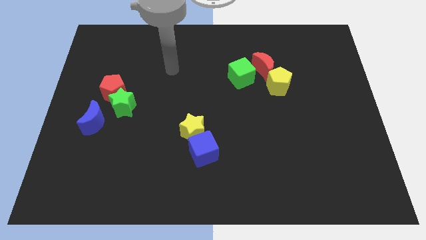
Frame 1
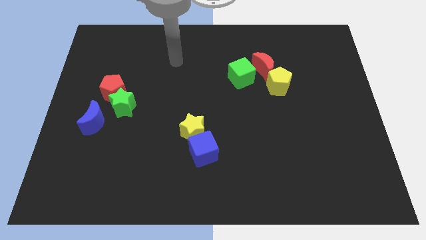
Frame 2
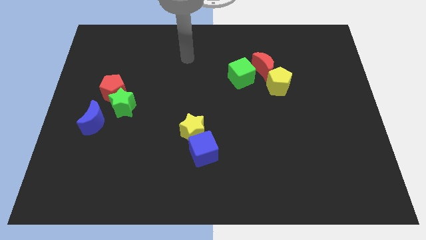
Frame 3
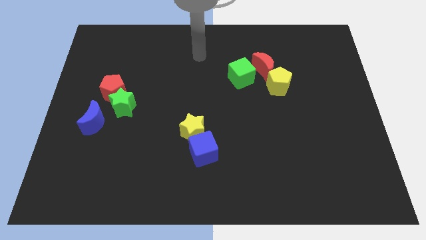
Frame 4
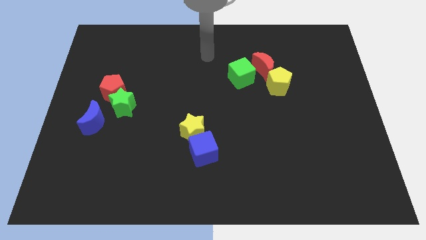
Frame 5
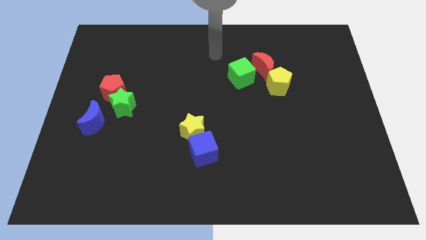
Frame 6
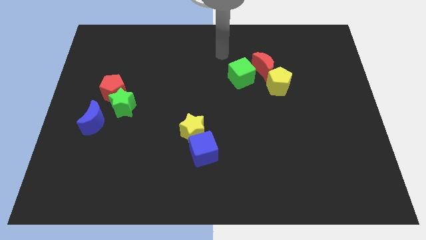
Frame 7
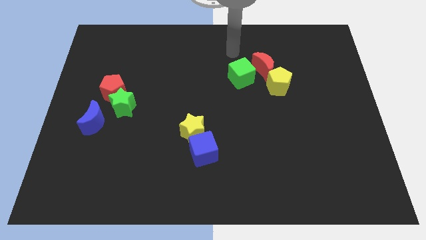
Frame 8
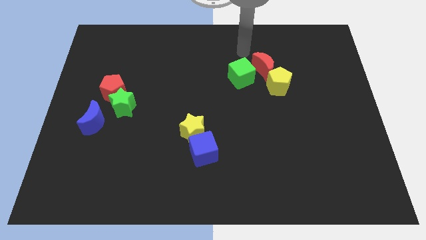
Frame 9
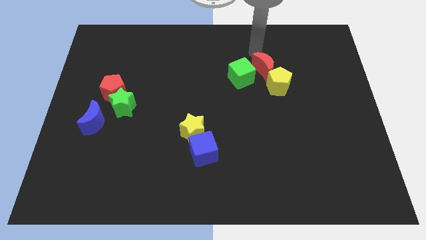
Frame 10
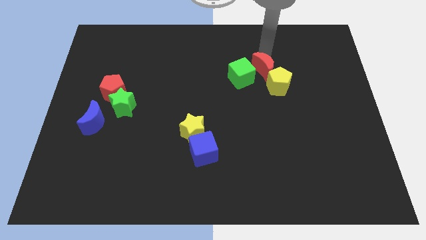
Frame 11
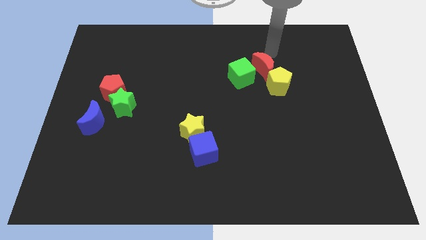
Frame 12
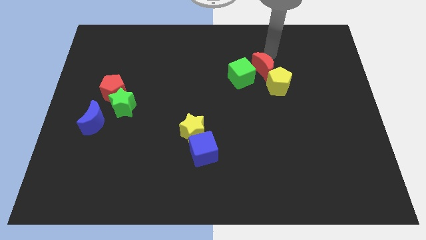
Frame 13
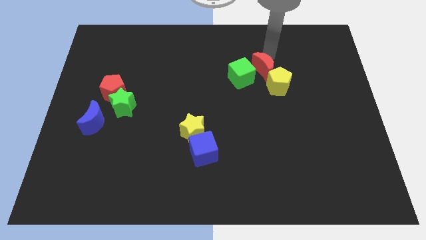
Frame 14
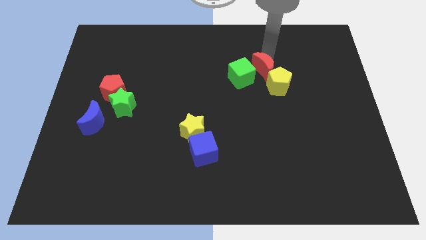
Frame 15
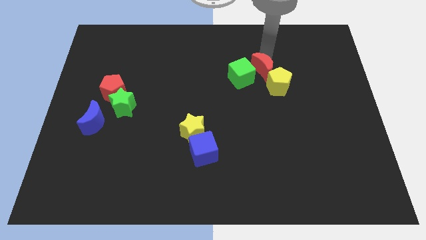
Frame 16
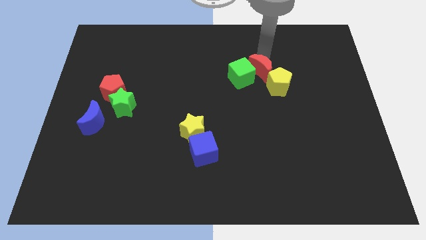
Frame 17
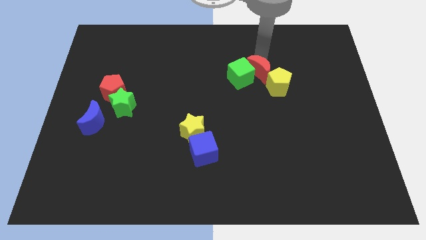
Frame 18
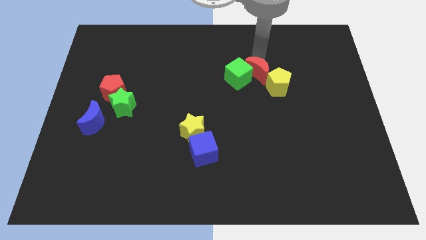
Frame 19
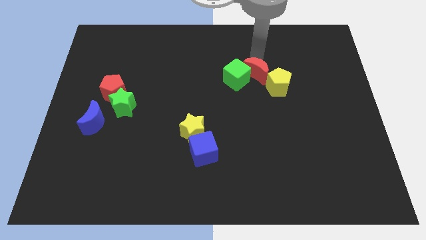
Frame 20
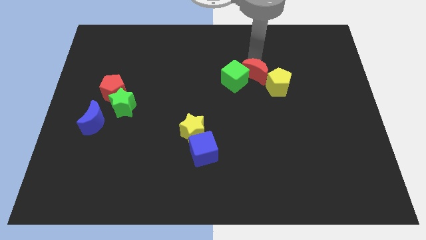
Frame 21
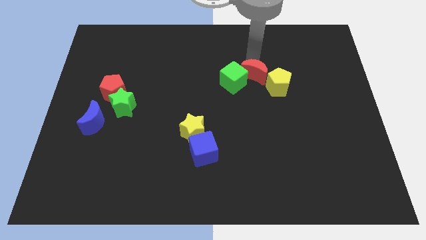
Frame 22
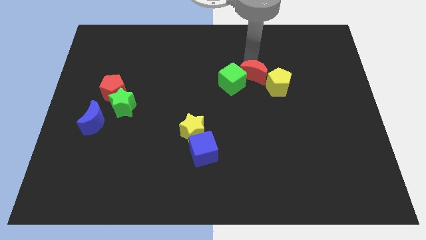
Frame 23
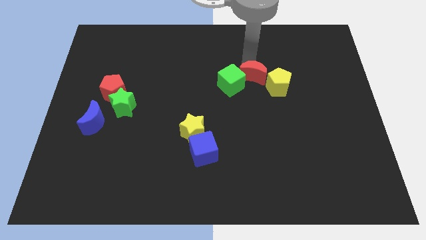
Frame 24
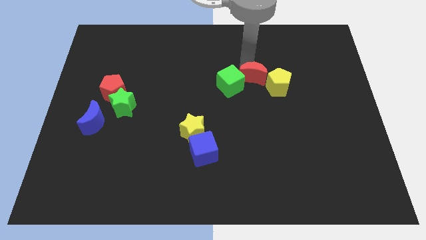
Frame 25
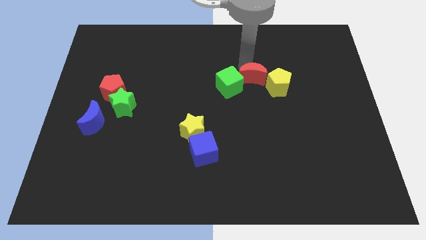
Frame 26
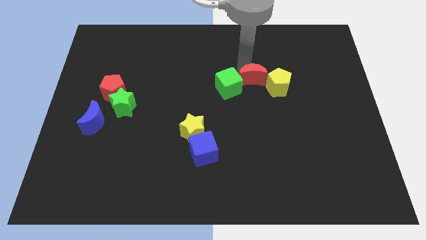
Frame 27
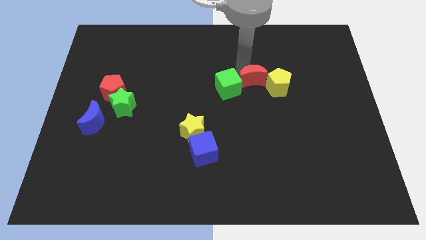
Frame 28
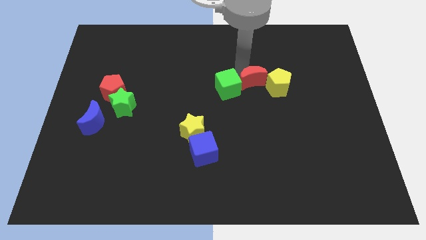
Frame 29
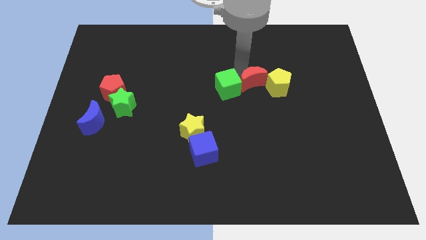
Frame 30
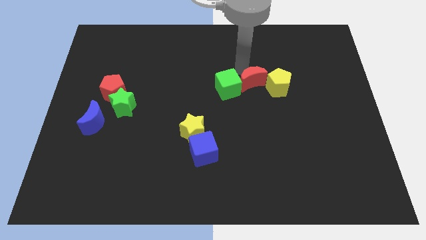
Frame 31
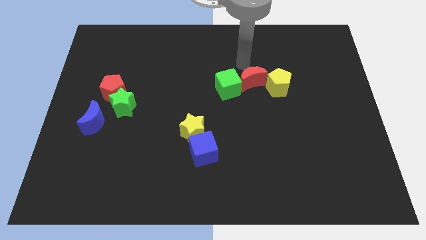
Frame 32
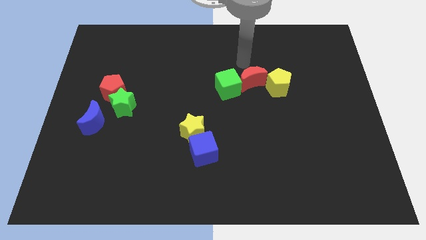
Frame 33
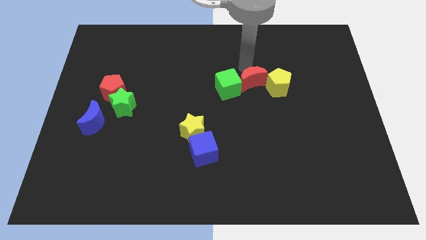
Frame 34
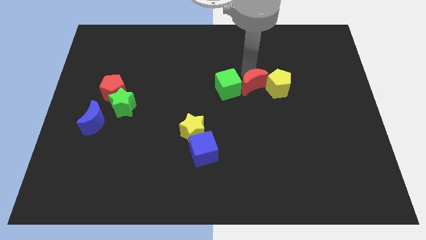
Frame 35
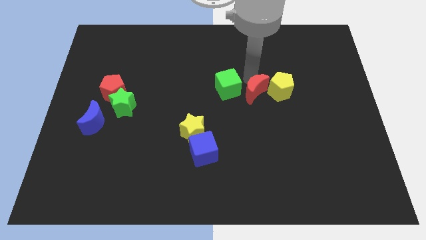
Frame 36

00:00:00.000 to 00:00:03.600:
slightly push the red moon down

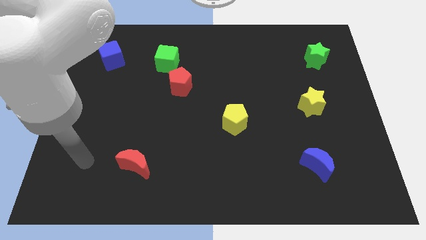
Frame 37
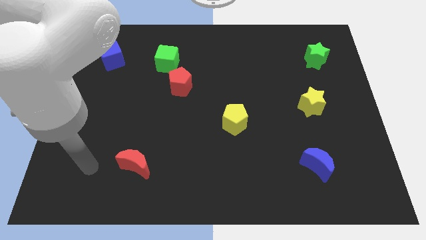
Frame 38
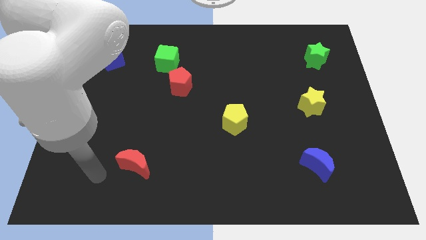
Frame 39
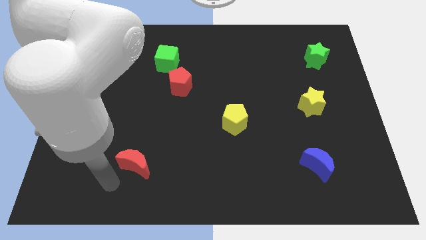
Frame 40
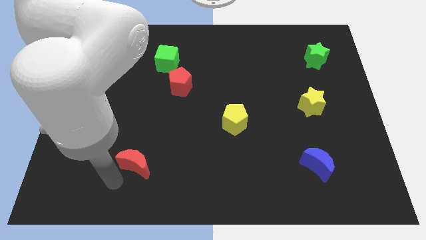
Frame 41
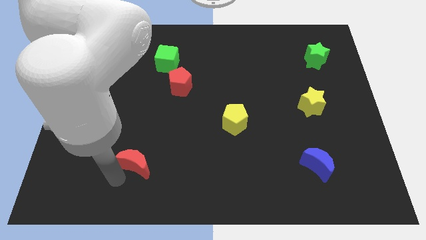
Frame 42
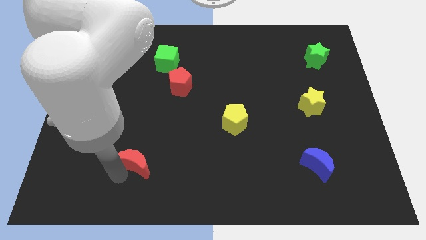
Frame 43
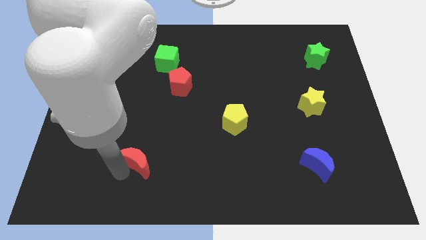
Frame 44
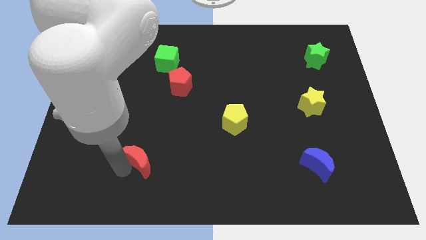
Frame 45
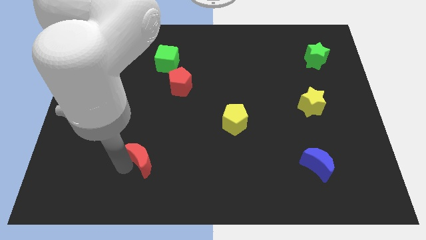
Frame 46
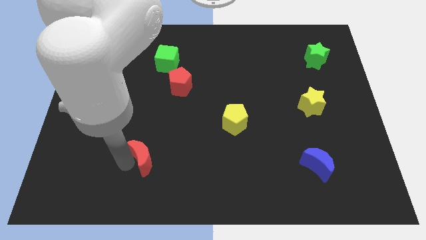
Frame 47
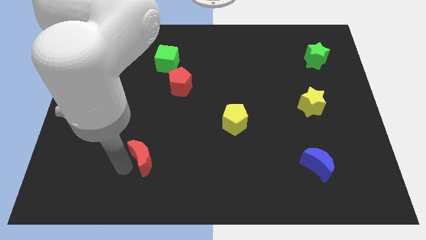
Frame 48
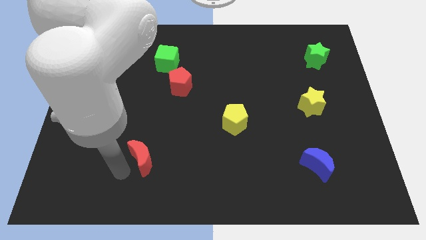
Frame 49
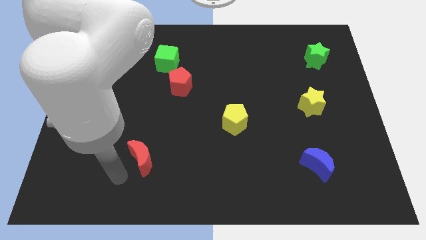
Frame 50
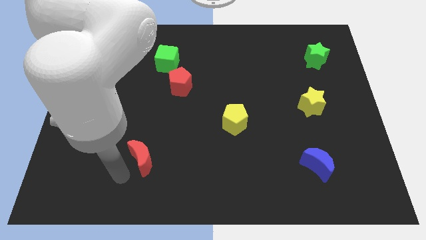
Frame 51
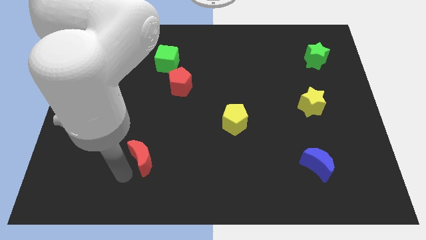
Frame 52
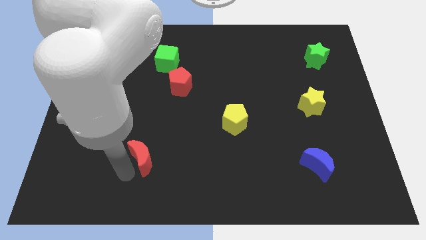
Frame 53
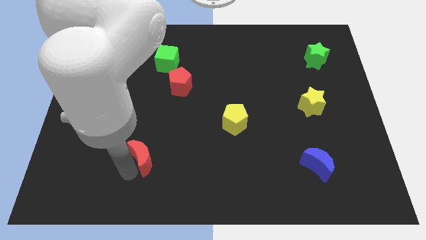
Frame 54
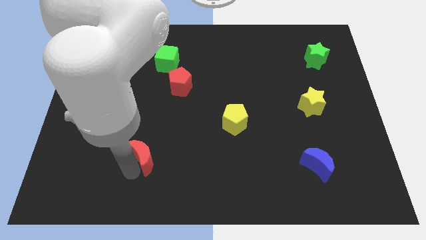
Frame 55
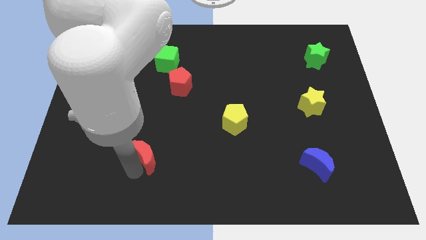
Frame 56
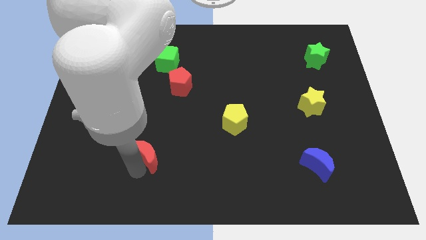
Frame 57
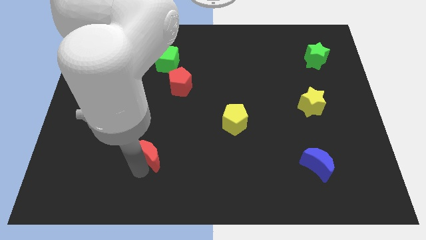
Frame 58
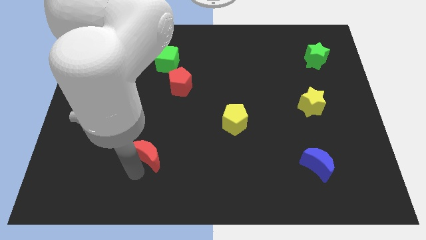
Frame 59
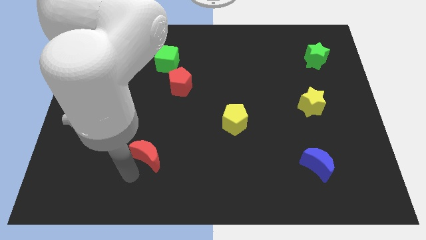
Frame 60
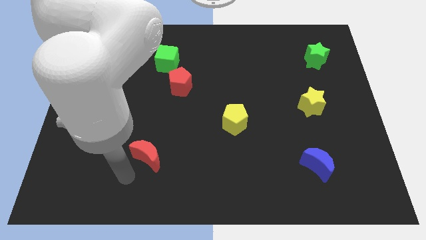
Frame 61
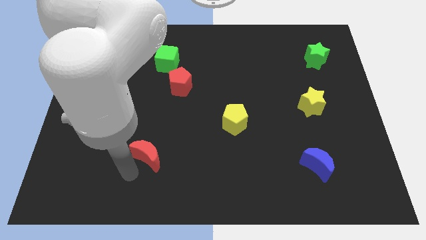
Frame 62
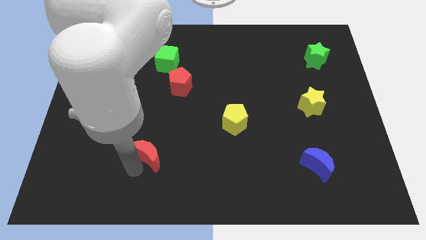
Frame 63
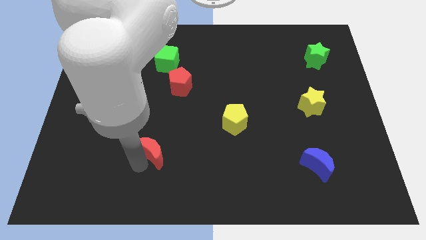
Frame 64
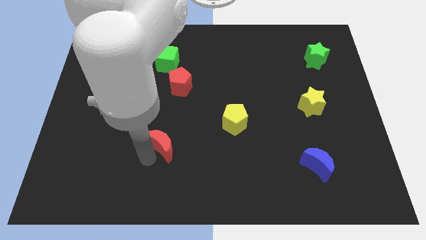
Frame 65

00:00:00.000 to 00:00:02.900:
slightly push the red moon upwards and right

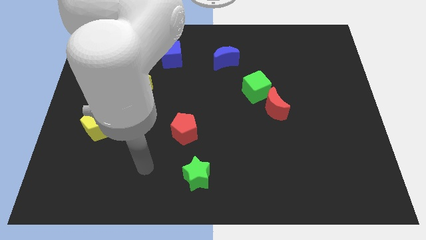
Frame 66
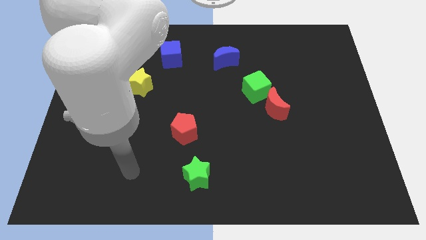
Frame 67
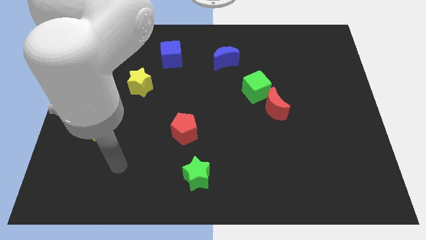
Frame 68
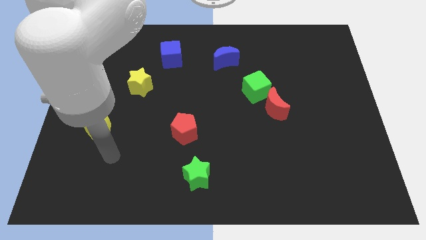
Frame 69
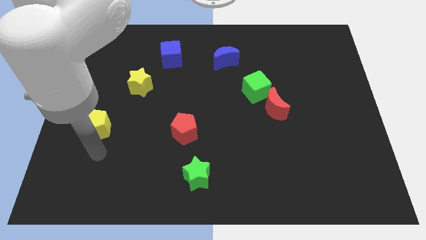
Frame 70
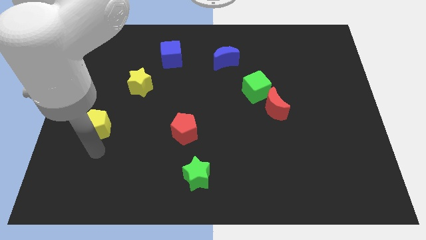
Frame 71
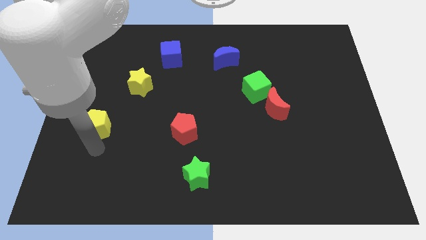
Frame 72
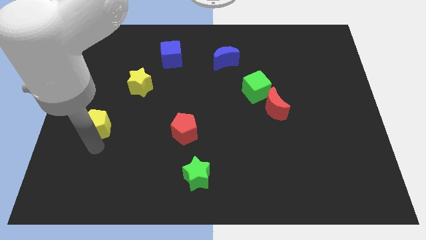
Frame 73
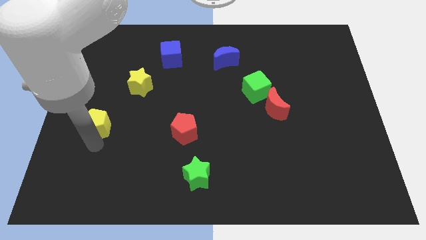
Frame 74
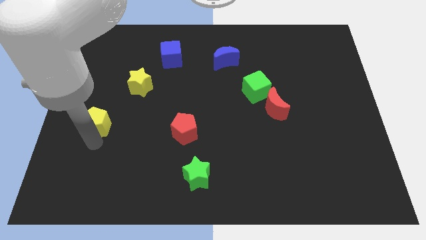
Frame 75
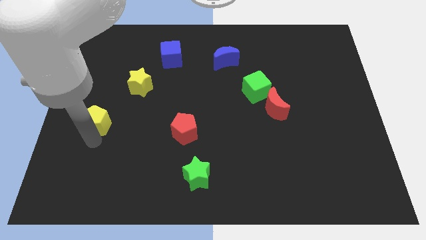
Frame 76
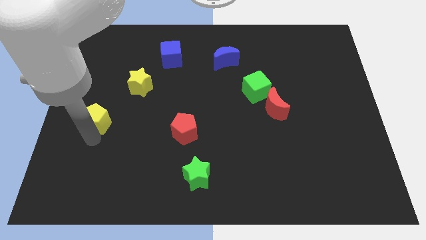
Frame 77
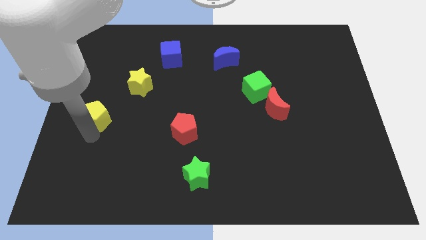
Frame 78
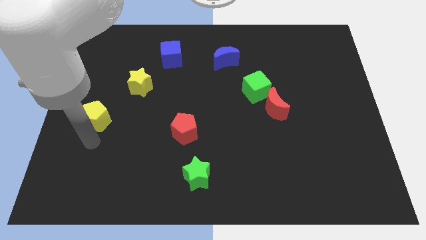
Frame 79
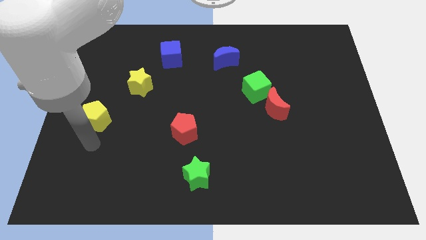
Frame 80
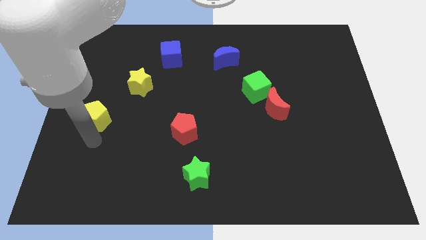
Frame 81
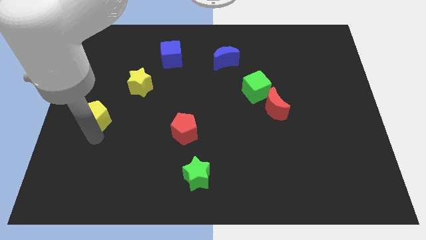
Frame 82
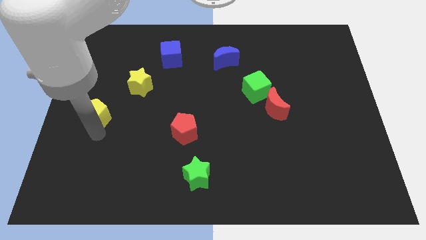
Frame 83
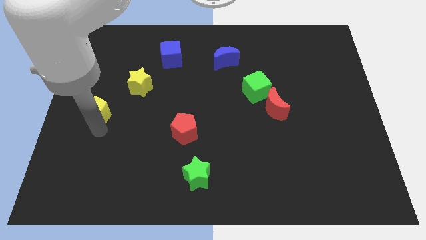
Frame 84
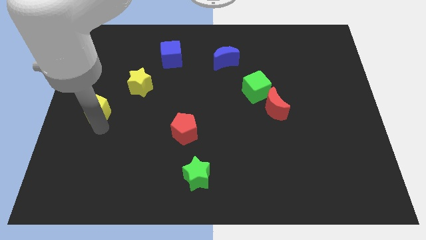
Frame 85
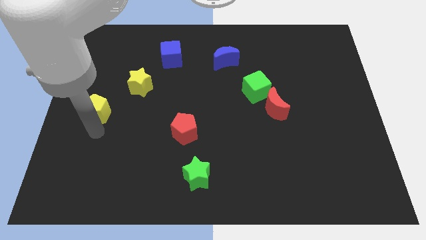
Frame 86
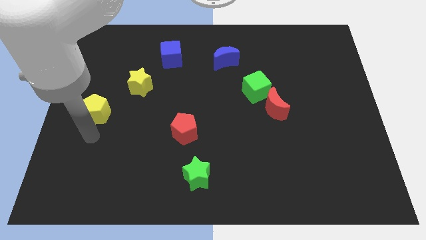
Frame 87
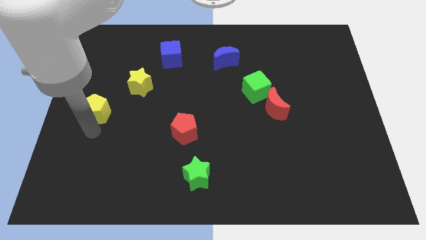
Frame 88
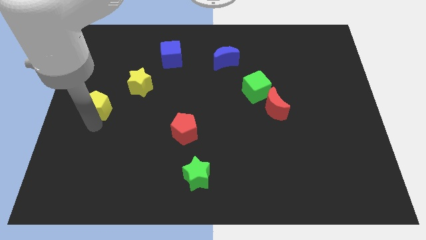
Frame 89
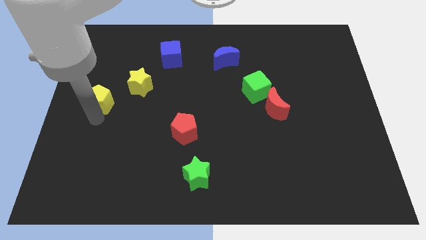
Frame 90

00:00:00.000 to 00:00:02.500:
slightly push the yellow pentagon up
